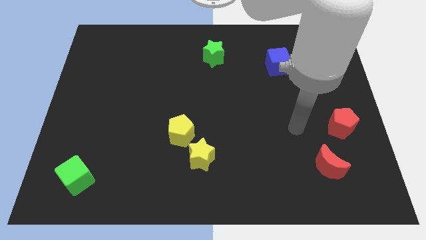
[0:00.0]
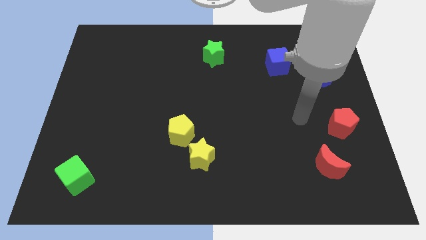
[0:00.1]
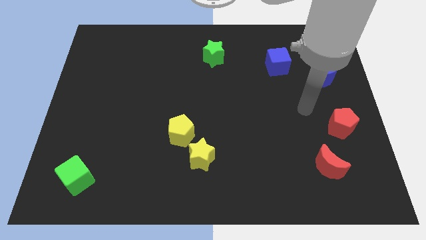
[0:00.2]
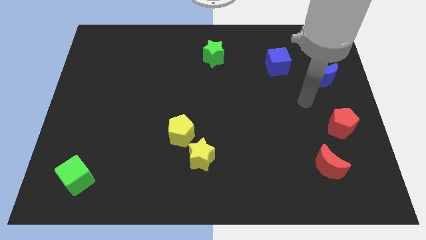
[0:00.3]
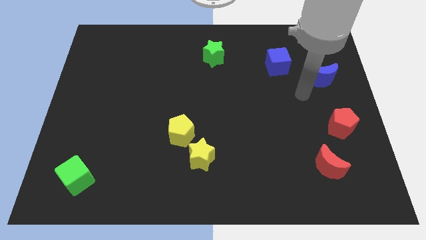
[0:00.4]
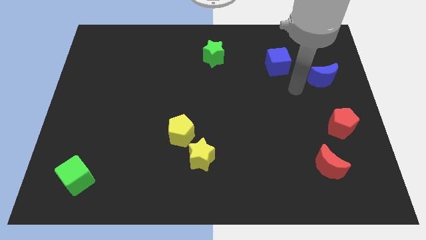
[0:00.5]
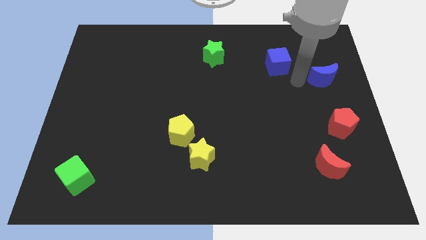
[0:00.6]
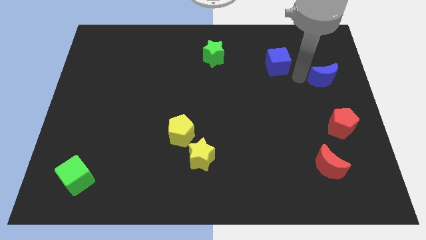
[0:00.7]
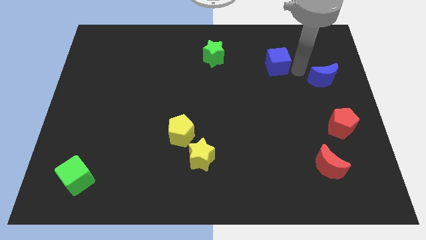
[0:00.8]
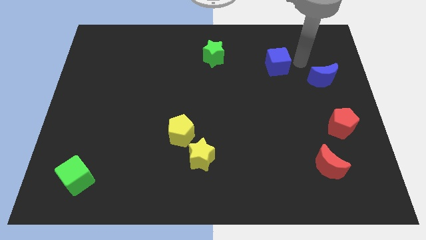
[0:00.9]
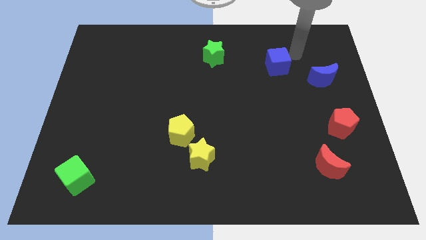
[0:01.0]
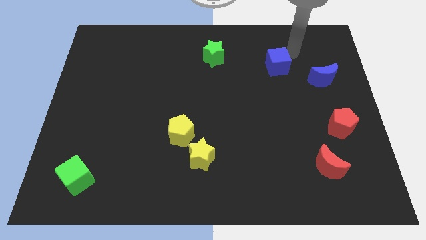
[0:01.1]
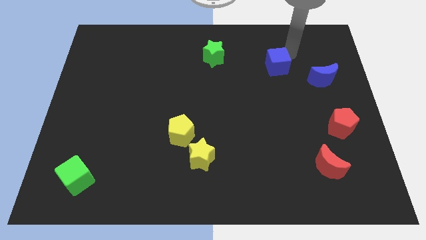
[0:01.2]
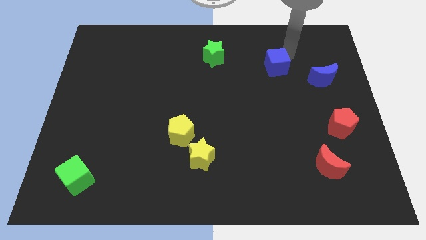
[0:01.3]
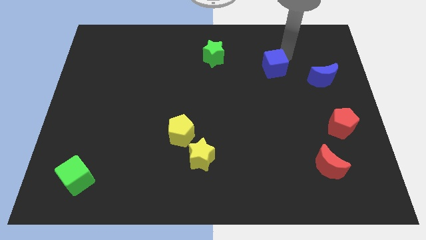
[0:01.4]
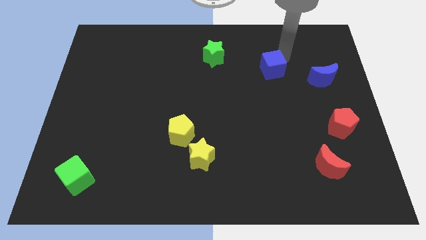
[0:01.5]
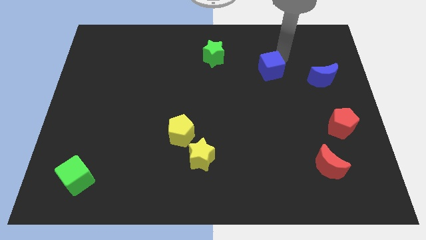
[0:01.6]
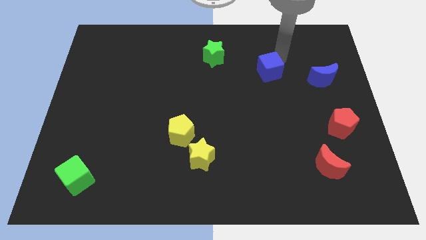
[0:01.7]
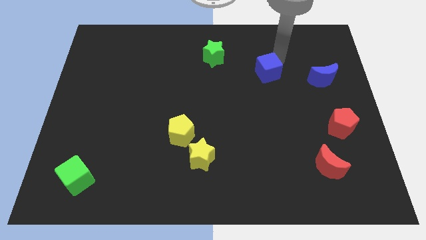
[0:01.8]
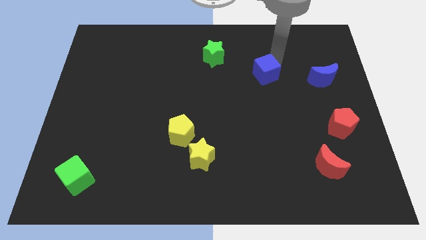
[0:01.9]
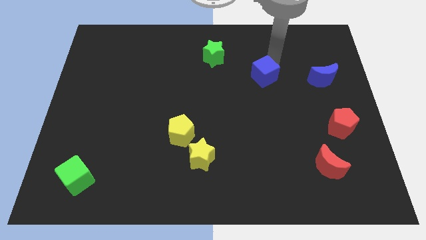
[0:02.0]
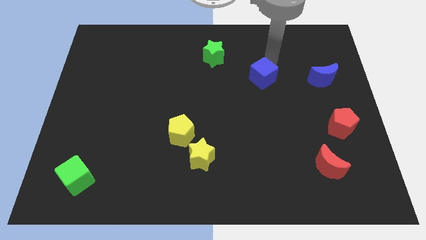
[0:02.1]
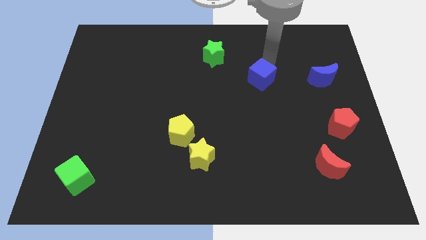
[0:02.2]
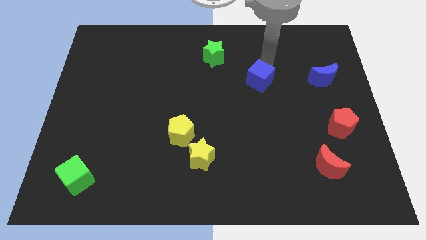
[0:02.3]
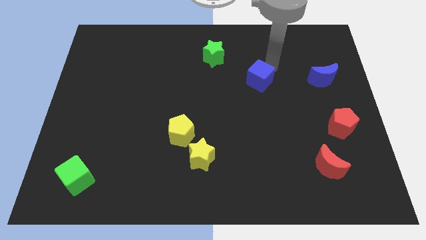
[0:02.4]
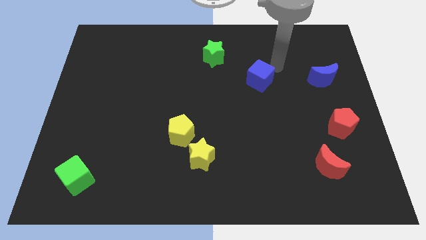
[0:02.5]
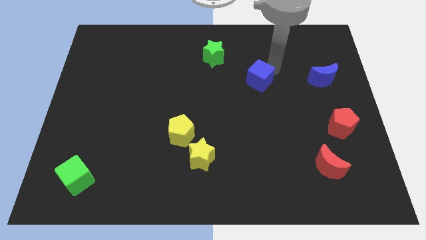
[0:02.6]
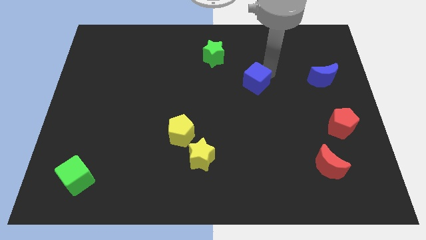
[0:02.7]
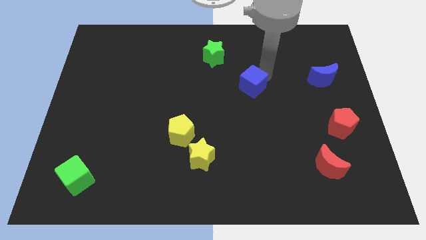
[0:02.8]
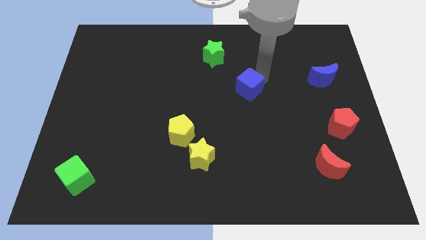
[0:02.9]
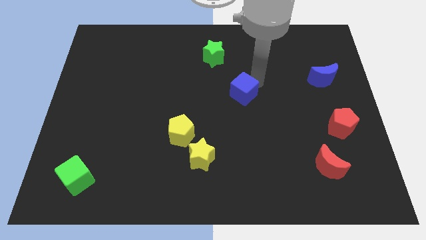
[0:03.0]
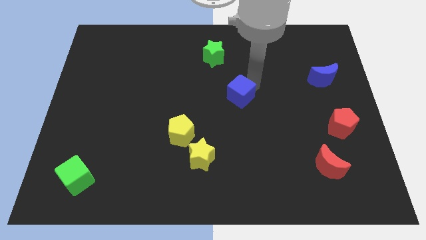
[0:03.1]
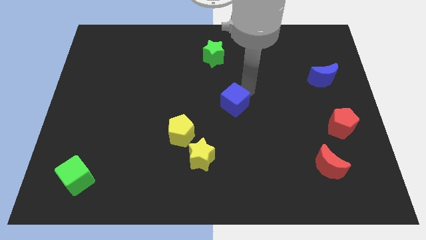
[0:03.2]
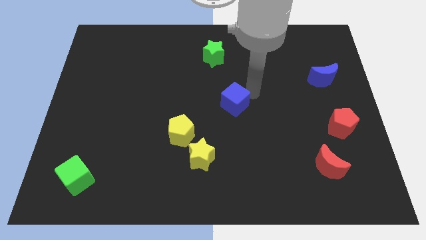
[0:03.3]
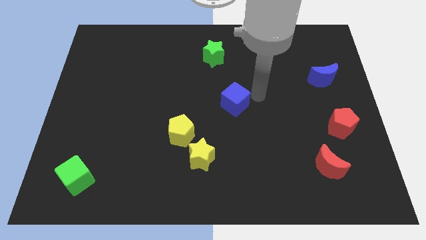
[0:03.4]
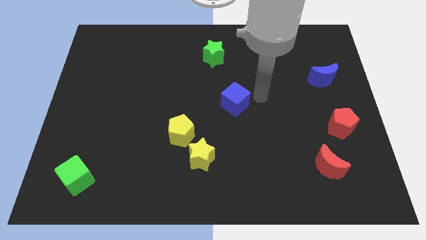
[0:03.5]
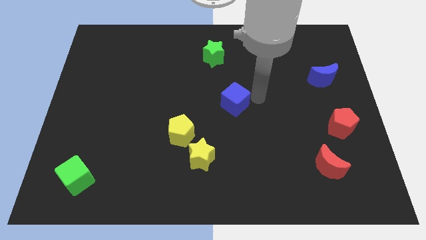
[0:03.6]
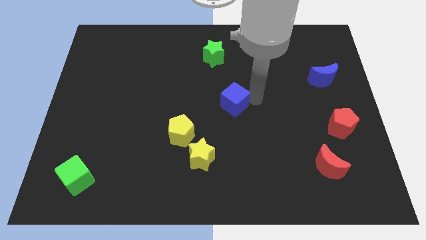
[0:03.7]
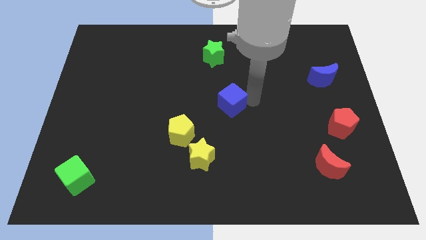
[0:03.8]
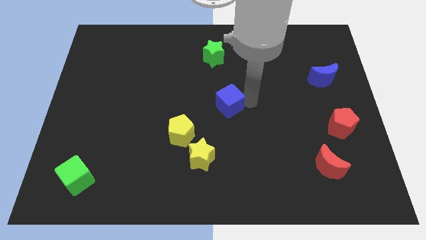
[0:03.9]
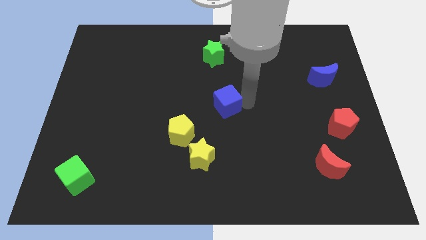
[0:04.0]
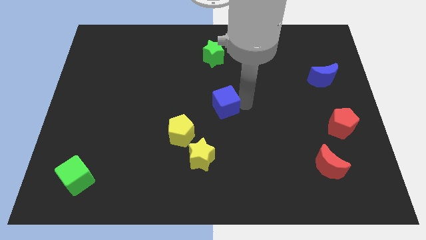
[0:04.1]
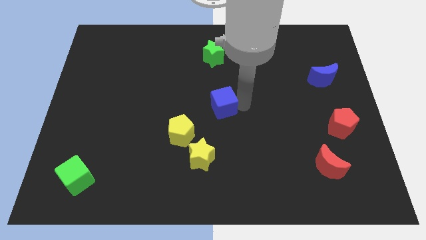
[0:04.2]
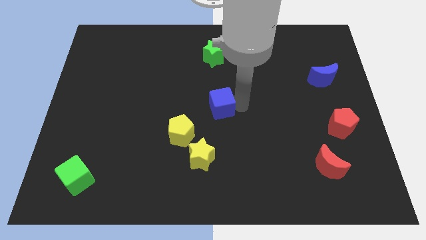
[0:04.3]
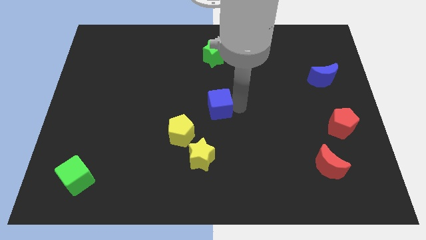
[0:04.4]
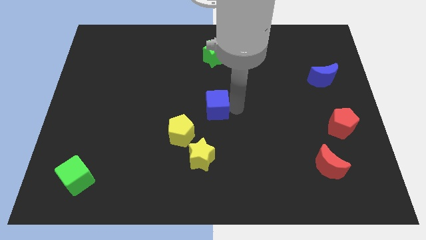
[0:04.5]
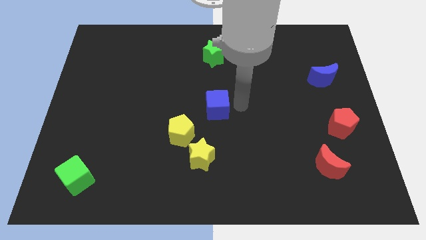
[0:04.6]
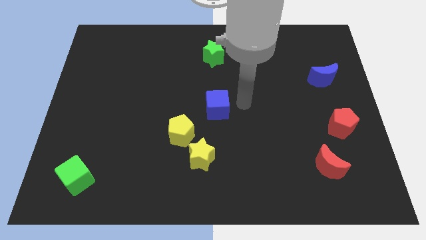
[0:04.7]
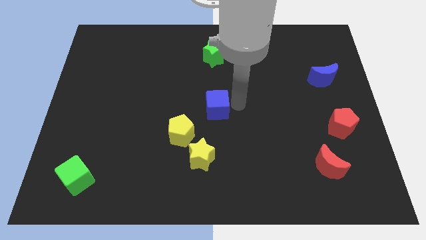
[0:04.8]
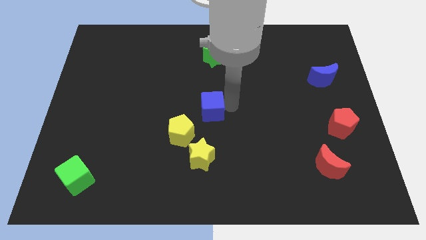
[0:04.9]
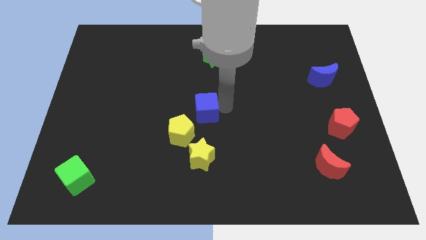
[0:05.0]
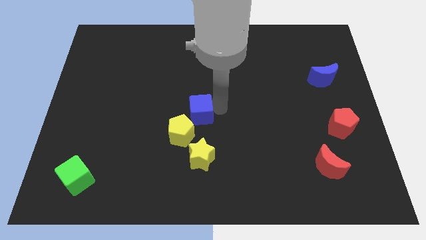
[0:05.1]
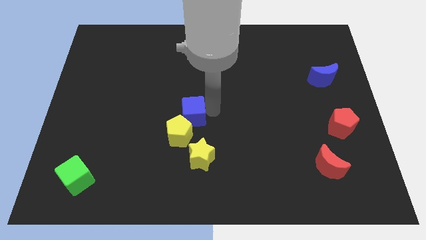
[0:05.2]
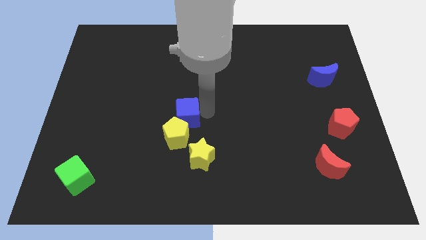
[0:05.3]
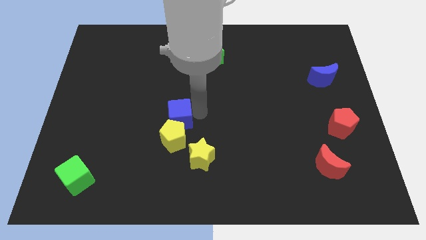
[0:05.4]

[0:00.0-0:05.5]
move the blue cube to the top left side of the yellow star

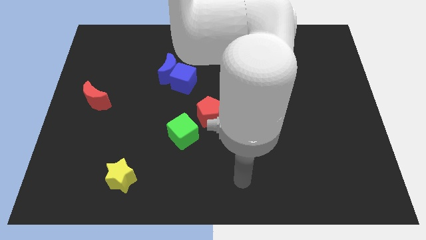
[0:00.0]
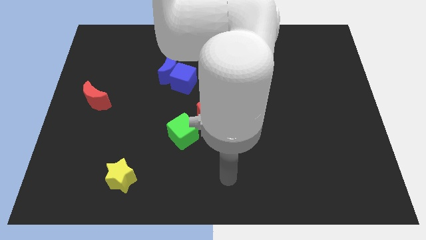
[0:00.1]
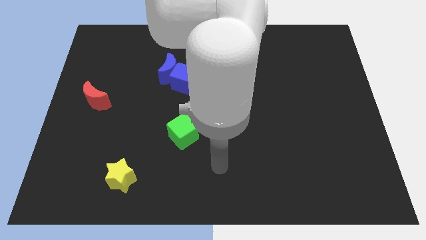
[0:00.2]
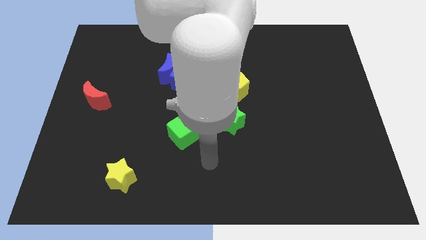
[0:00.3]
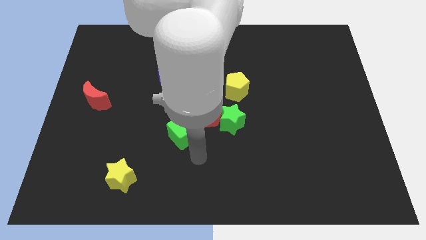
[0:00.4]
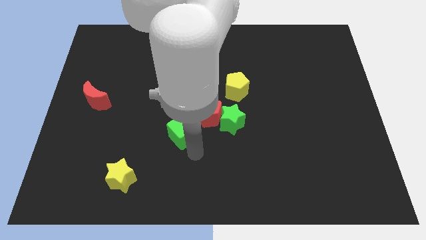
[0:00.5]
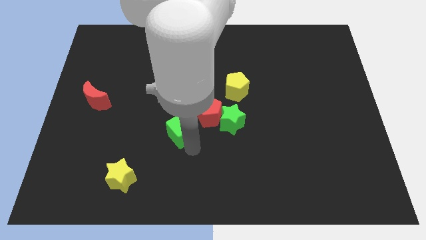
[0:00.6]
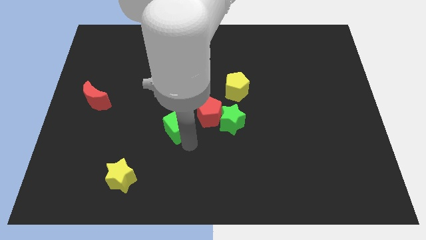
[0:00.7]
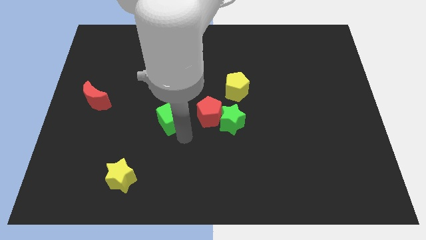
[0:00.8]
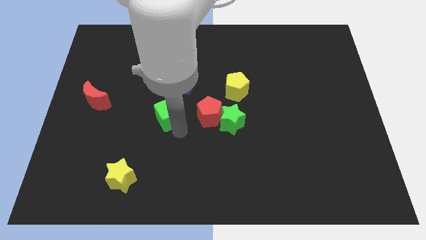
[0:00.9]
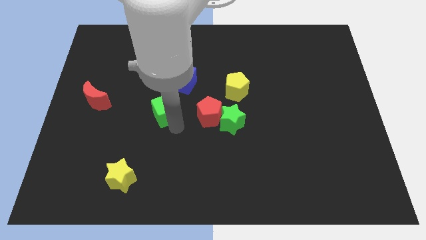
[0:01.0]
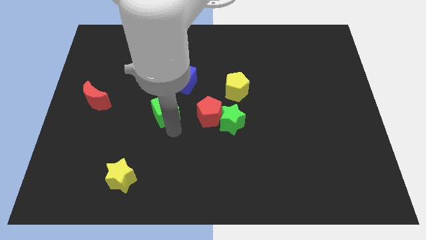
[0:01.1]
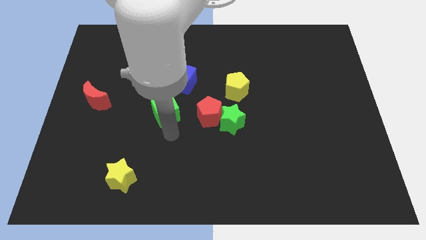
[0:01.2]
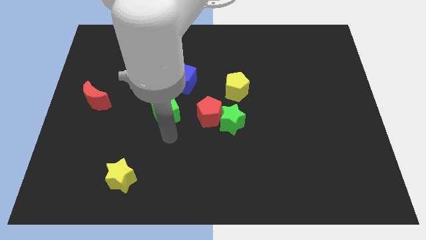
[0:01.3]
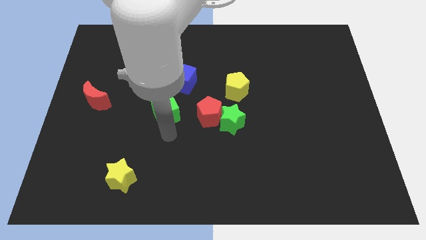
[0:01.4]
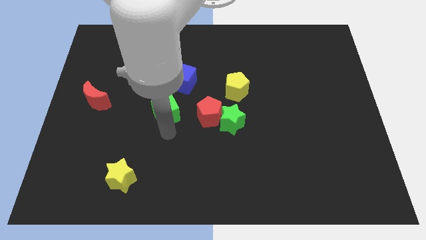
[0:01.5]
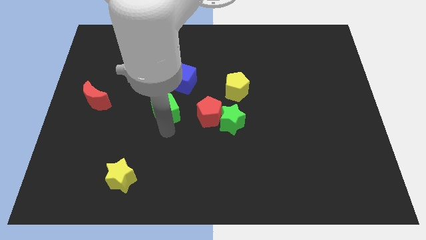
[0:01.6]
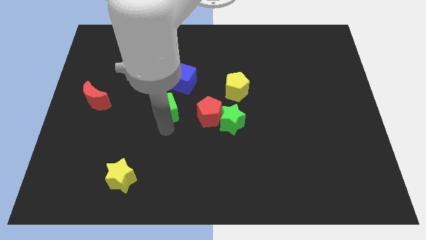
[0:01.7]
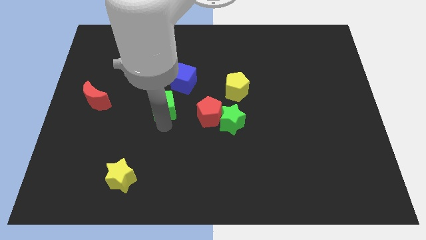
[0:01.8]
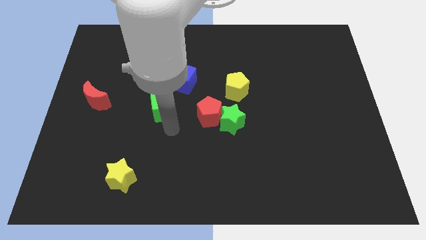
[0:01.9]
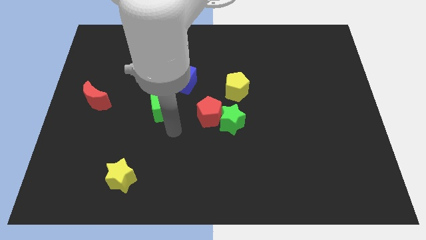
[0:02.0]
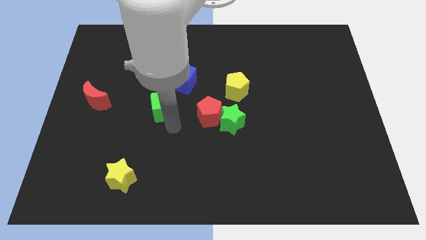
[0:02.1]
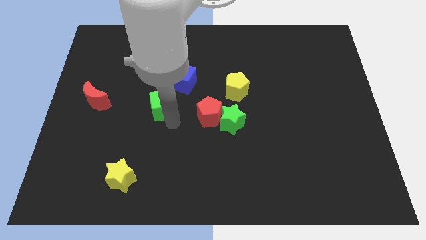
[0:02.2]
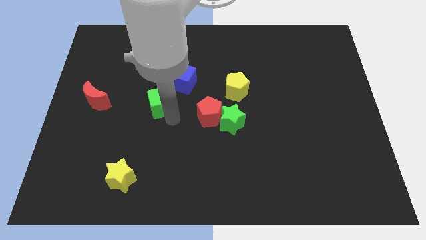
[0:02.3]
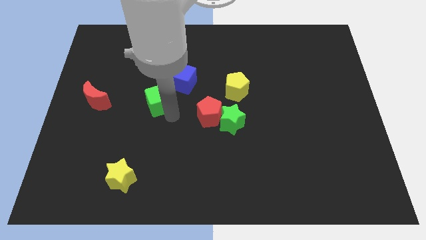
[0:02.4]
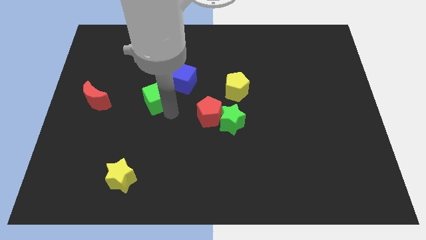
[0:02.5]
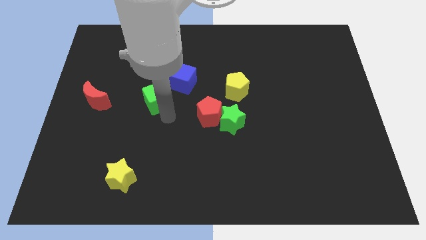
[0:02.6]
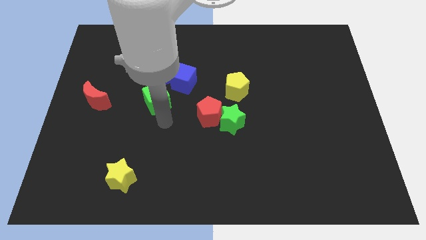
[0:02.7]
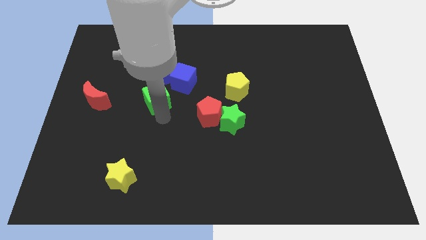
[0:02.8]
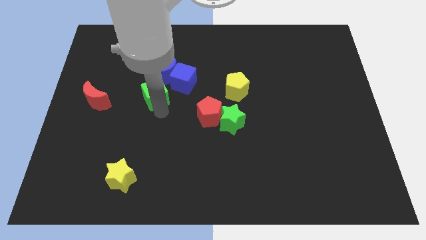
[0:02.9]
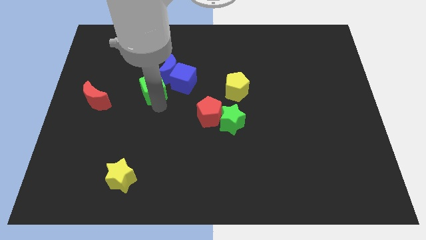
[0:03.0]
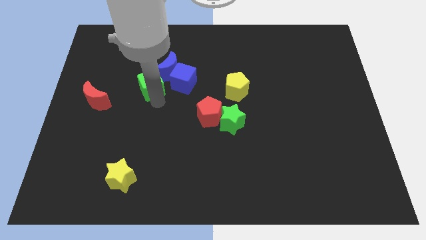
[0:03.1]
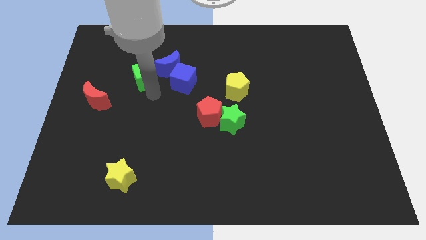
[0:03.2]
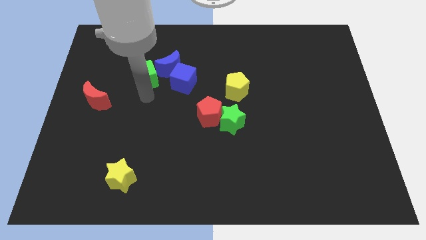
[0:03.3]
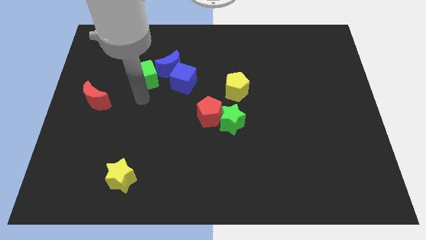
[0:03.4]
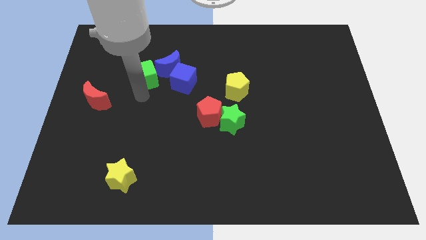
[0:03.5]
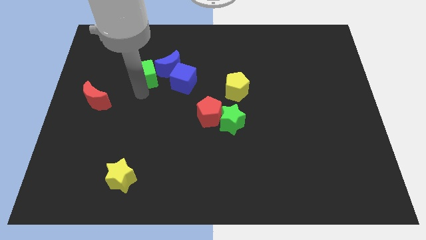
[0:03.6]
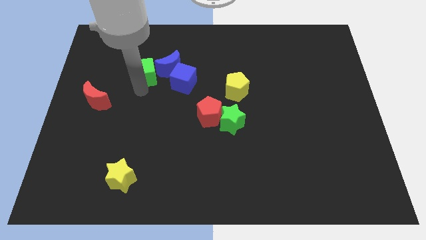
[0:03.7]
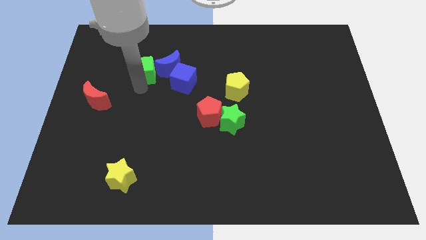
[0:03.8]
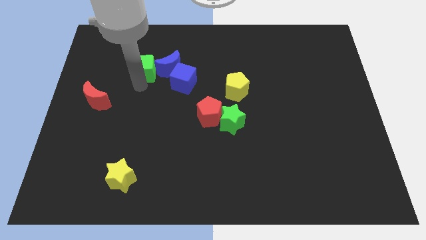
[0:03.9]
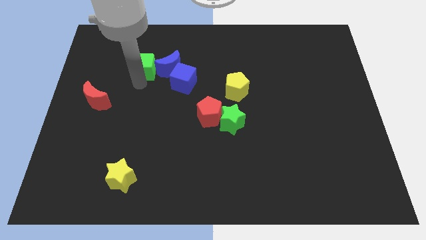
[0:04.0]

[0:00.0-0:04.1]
slide the green cube diagonally up and to the left of the blue moon
